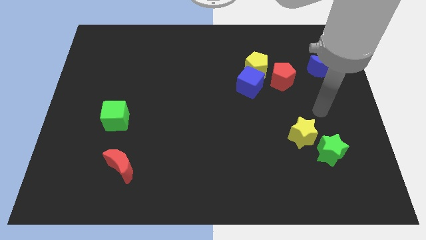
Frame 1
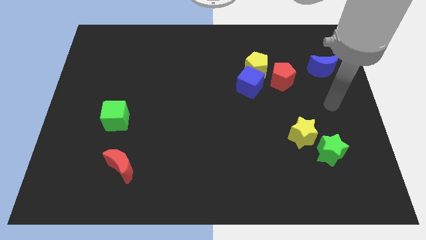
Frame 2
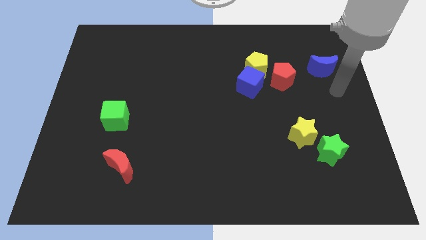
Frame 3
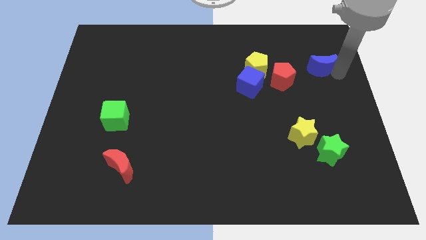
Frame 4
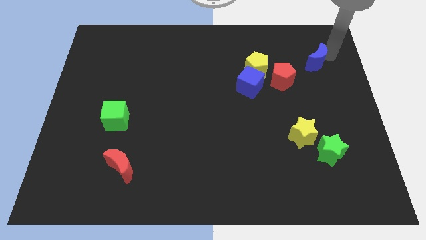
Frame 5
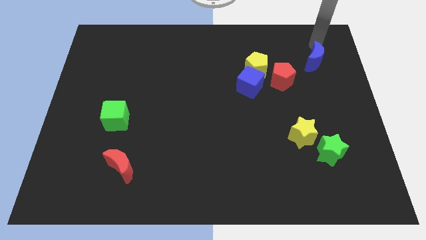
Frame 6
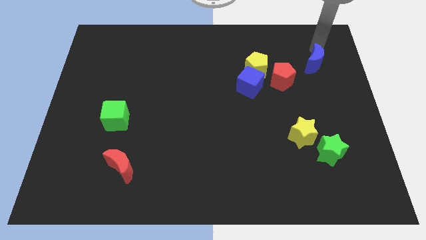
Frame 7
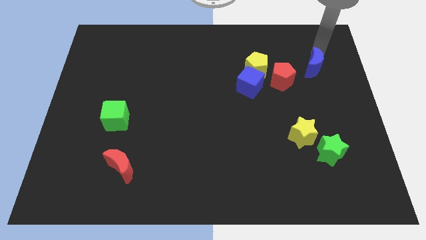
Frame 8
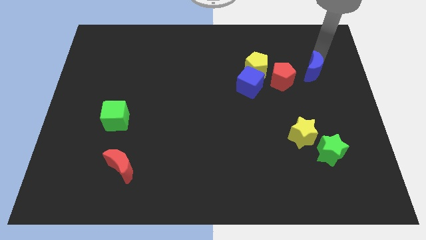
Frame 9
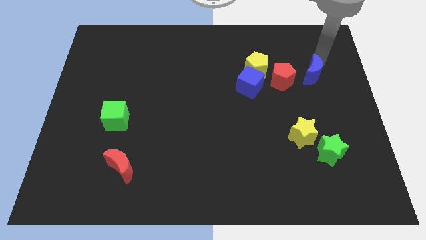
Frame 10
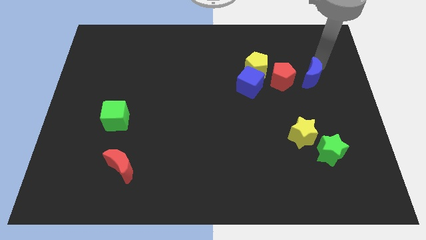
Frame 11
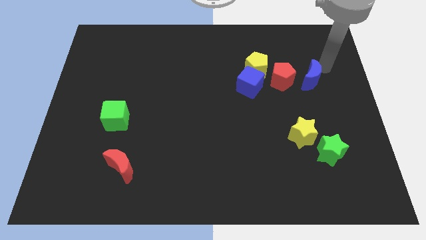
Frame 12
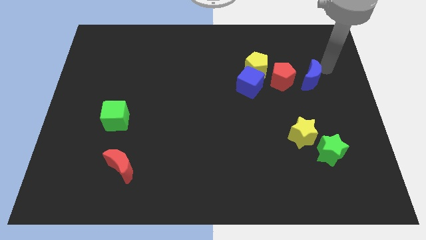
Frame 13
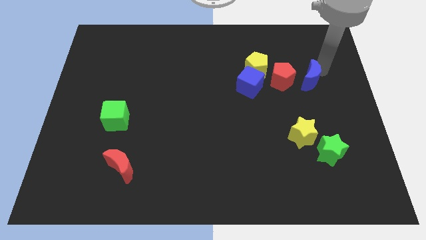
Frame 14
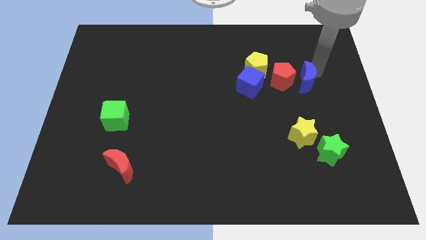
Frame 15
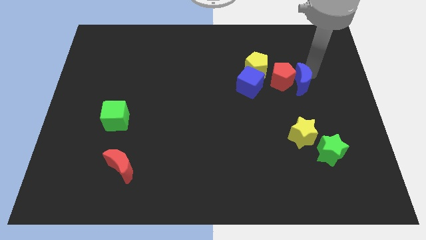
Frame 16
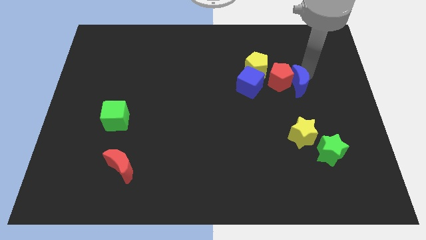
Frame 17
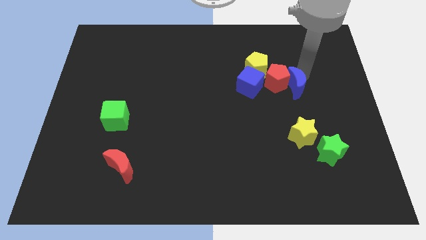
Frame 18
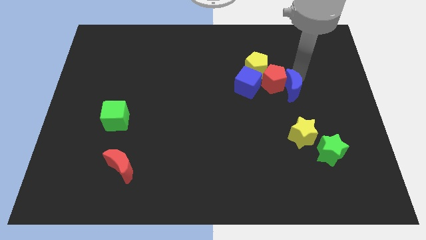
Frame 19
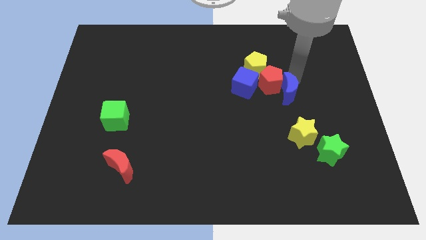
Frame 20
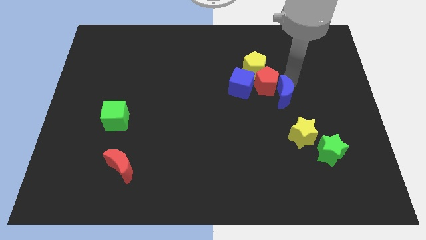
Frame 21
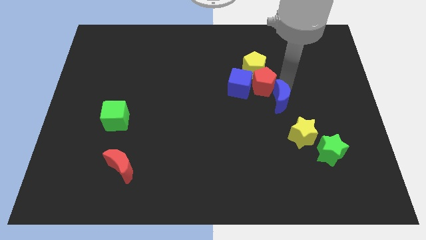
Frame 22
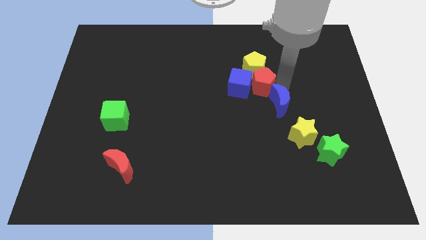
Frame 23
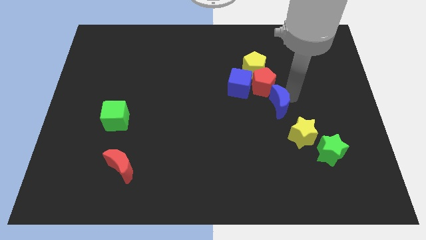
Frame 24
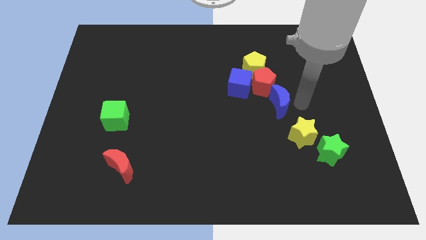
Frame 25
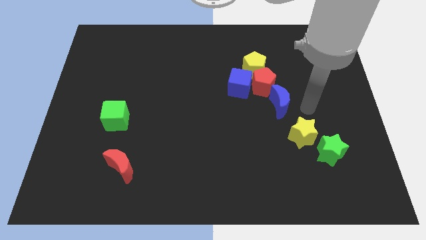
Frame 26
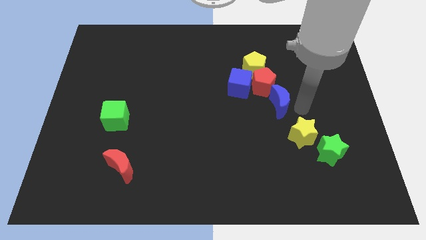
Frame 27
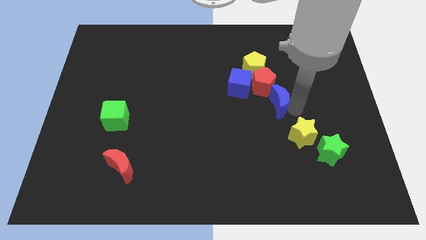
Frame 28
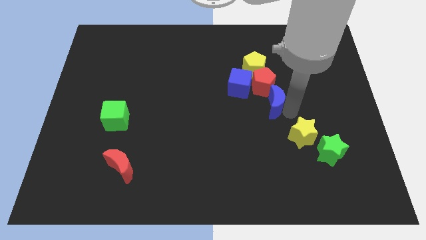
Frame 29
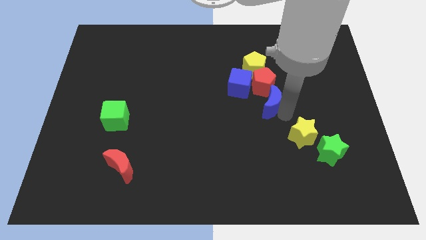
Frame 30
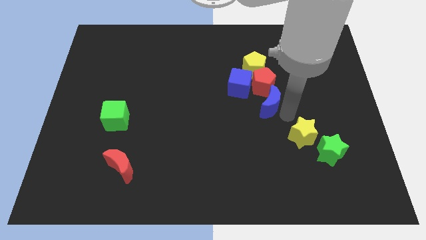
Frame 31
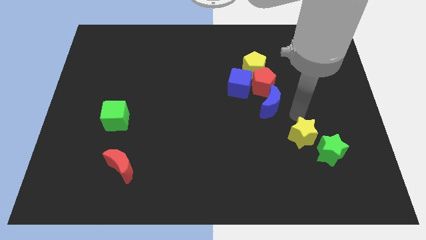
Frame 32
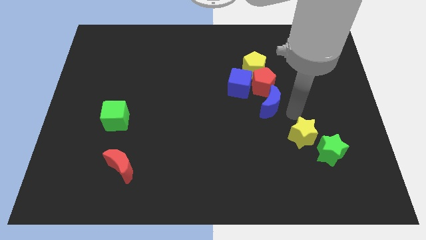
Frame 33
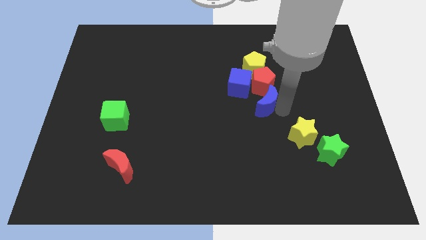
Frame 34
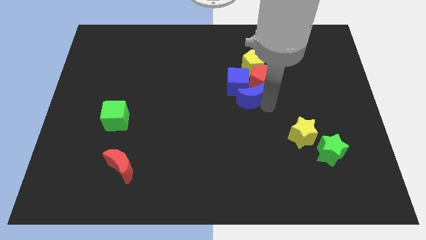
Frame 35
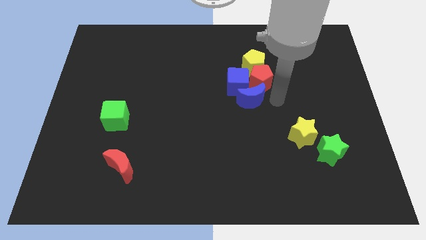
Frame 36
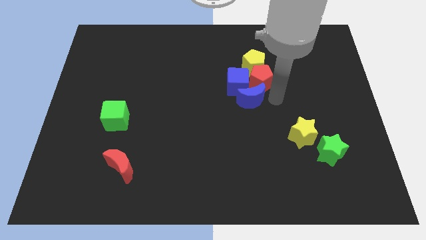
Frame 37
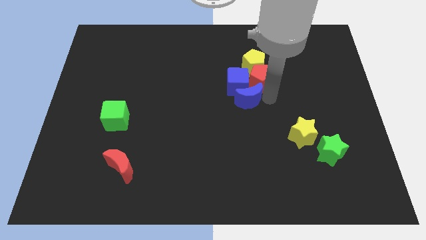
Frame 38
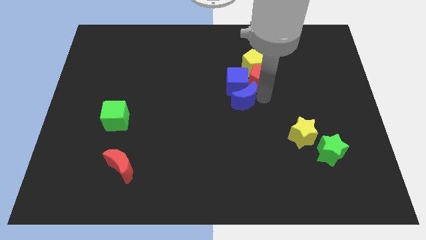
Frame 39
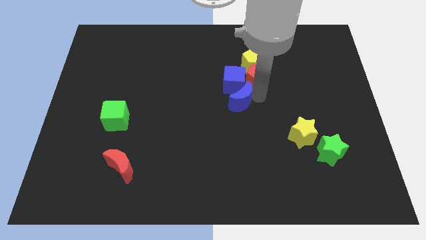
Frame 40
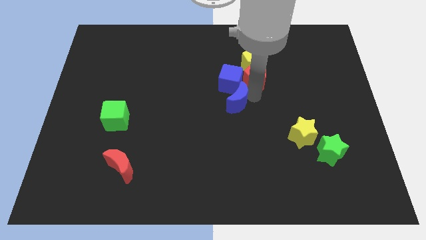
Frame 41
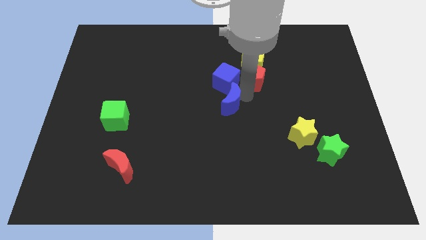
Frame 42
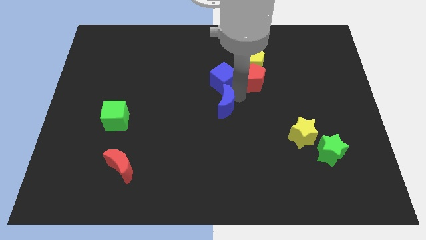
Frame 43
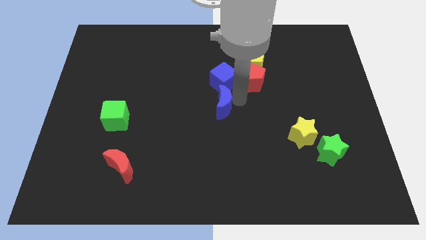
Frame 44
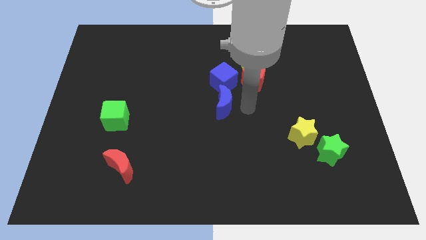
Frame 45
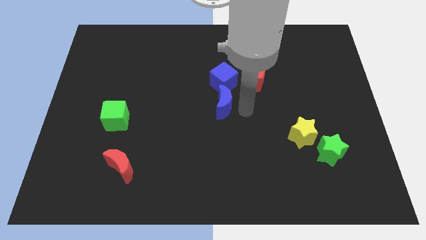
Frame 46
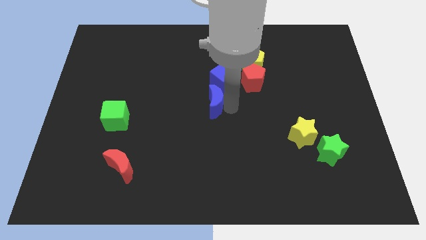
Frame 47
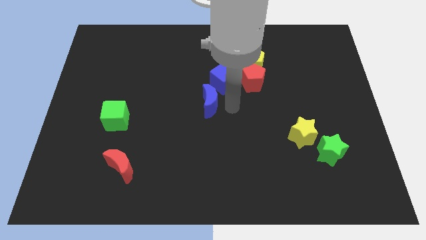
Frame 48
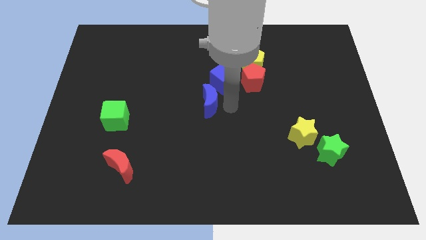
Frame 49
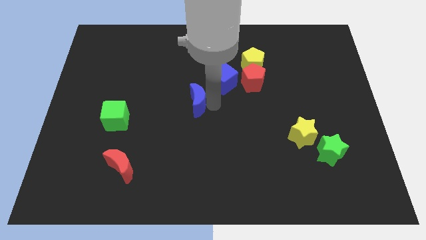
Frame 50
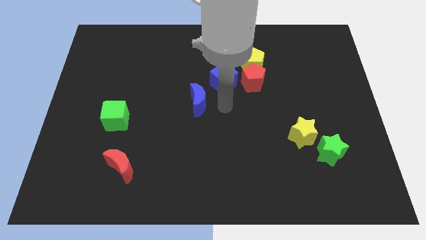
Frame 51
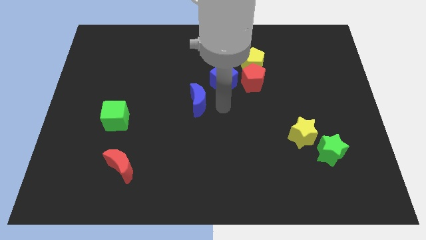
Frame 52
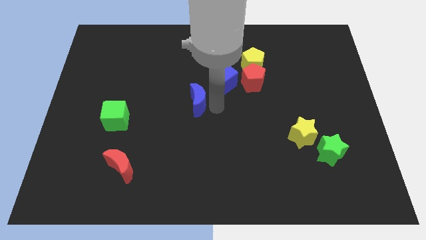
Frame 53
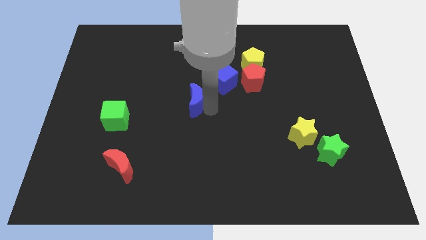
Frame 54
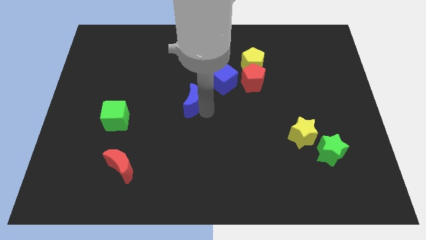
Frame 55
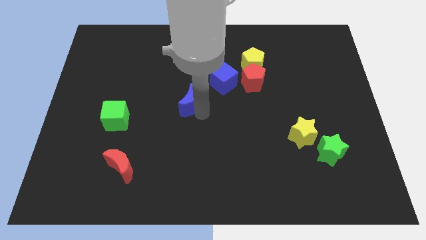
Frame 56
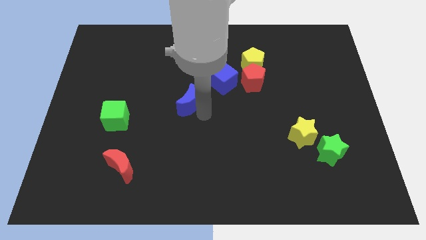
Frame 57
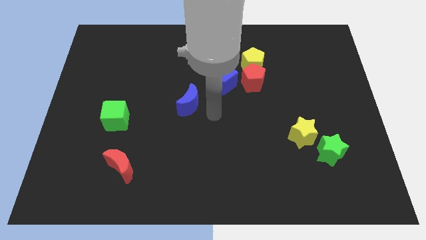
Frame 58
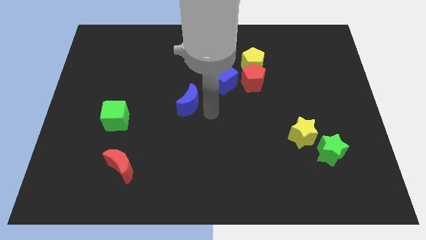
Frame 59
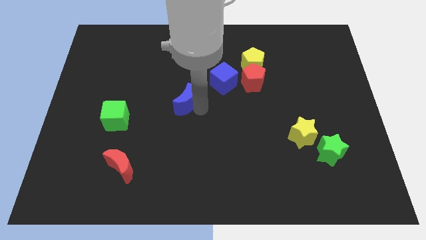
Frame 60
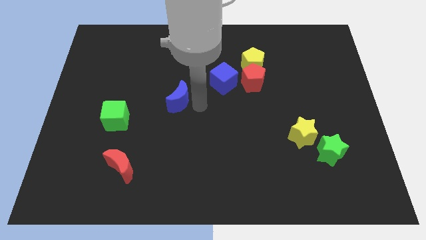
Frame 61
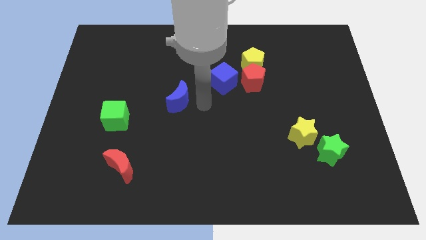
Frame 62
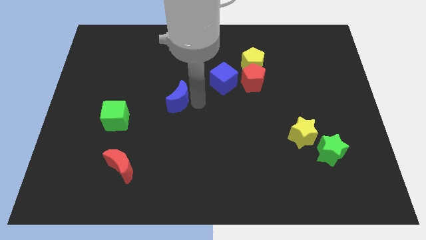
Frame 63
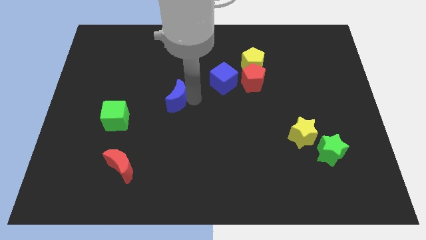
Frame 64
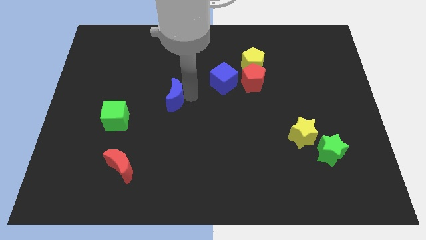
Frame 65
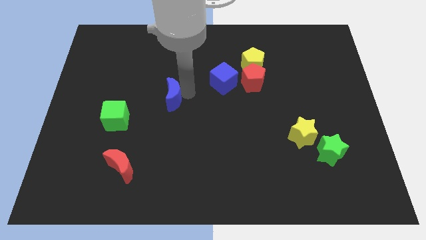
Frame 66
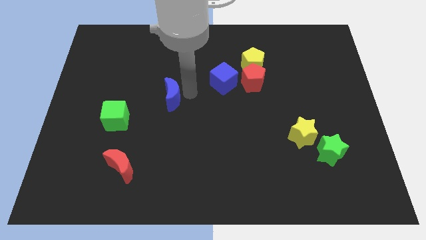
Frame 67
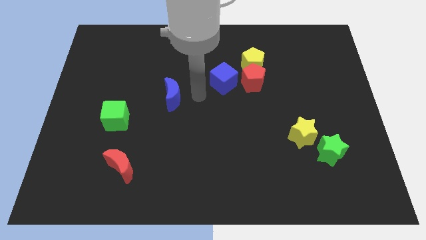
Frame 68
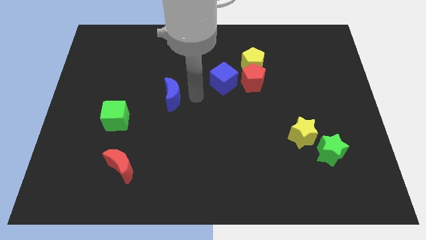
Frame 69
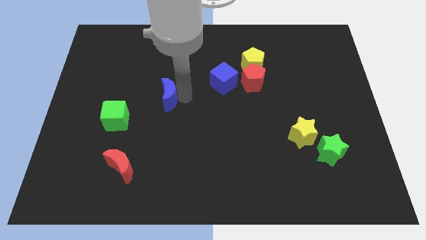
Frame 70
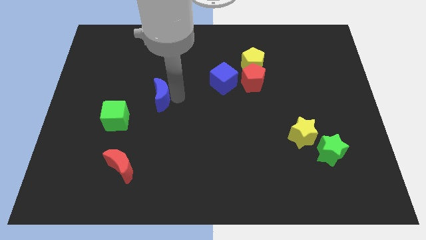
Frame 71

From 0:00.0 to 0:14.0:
put the blue moon to the top right of the green cube

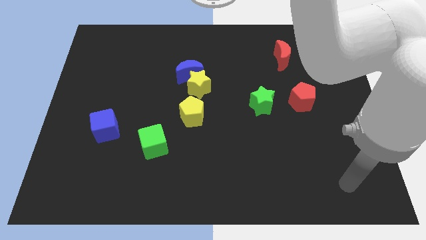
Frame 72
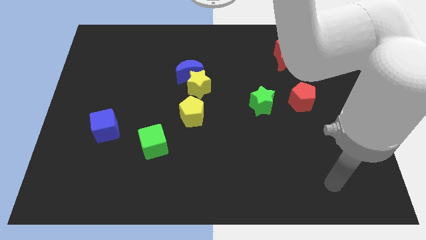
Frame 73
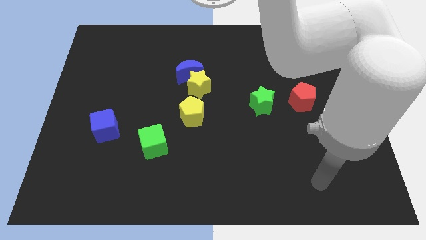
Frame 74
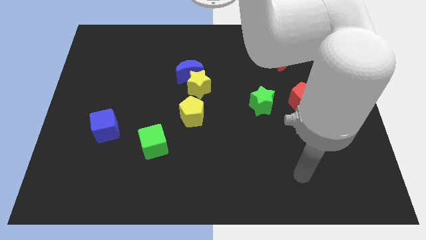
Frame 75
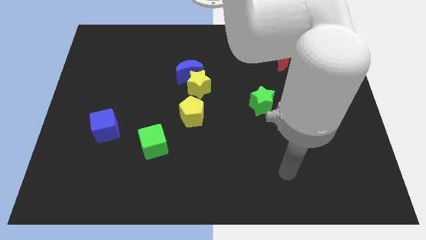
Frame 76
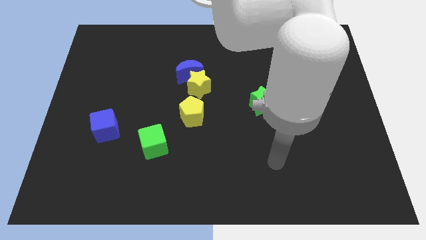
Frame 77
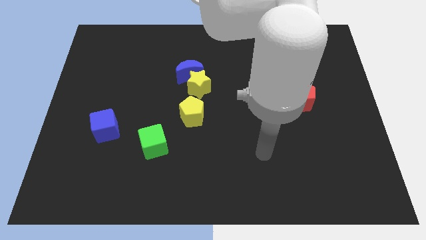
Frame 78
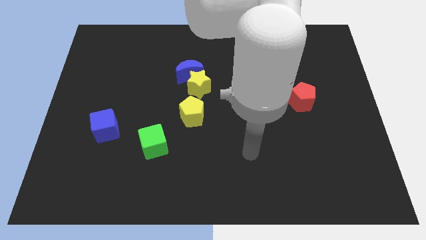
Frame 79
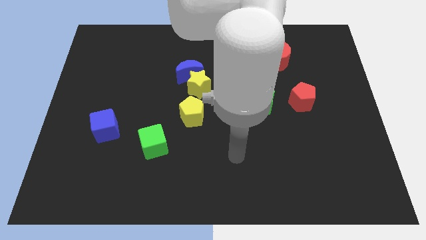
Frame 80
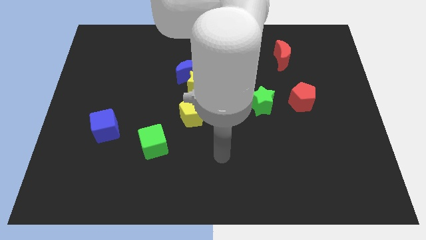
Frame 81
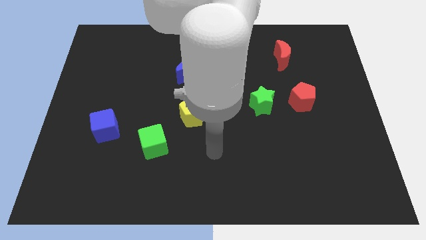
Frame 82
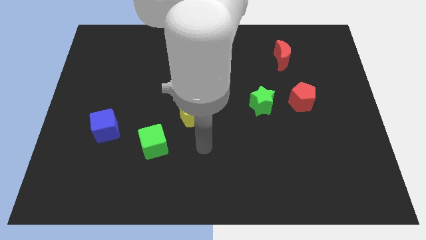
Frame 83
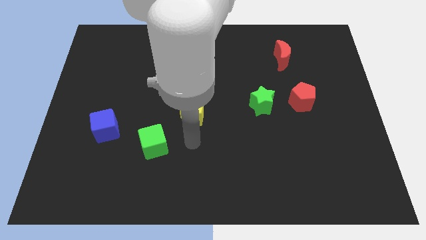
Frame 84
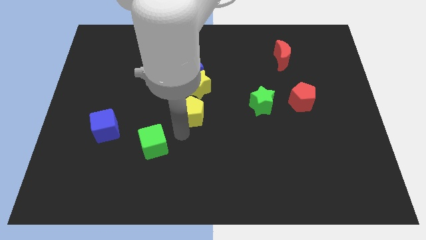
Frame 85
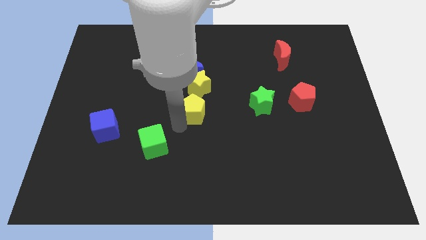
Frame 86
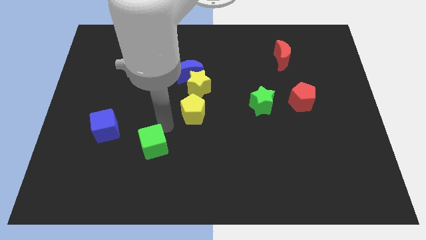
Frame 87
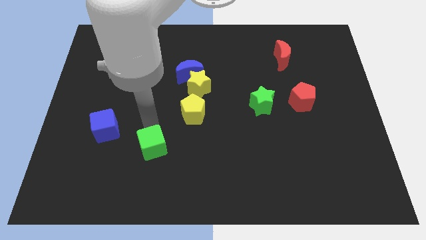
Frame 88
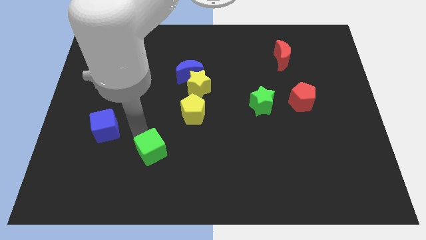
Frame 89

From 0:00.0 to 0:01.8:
push the blue cube to the top left side of the green cube
